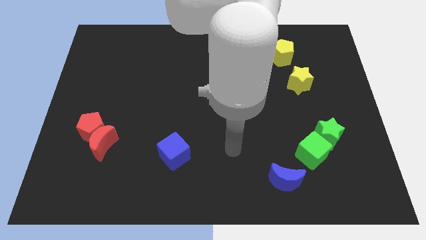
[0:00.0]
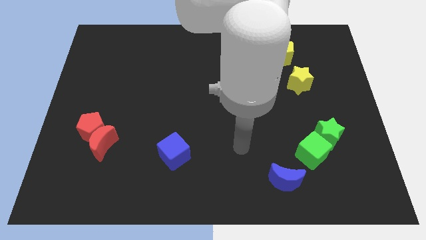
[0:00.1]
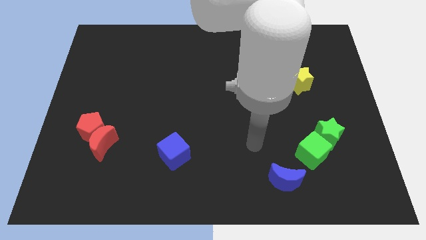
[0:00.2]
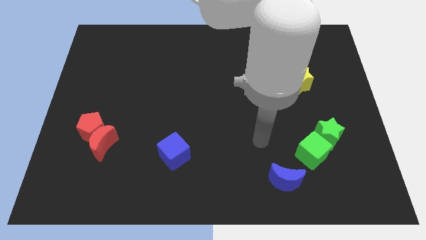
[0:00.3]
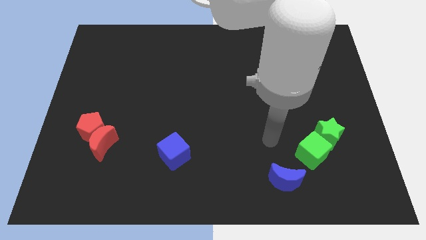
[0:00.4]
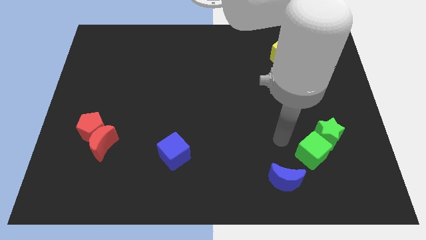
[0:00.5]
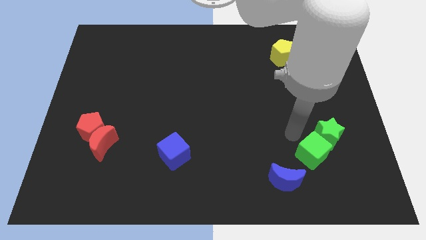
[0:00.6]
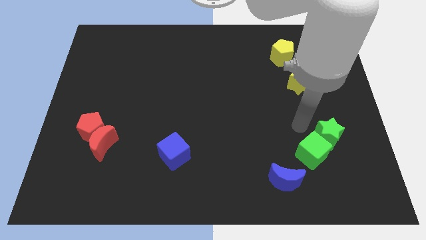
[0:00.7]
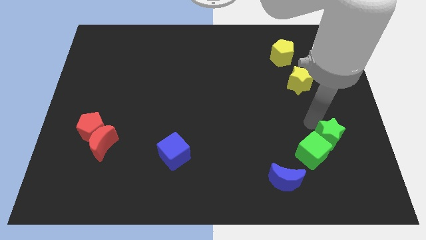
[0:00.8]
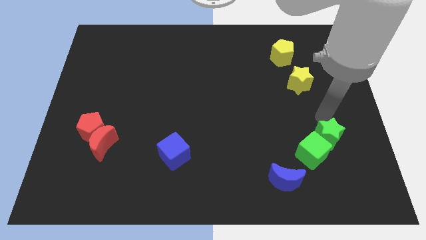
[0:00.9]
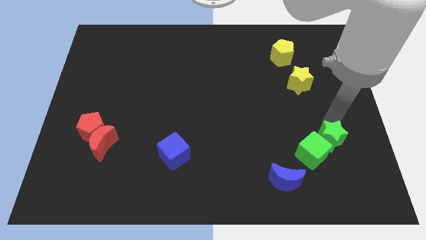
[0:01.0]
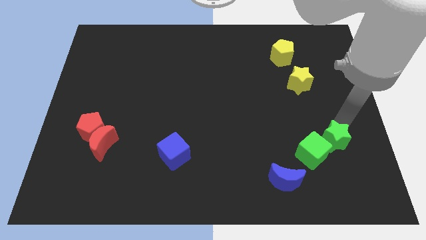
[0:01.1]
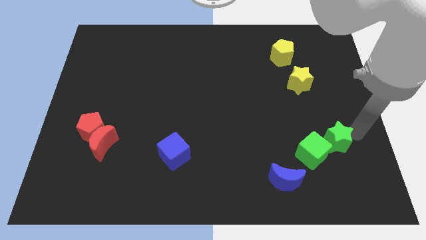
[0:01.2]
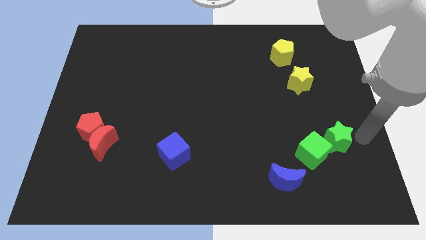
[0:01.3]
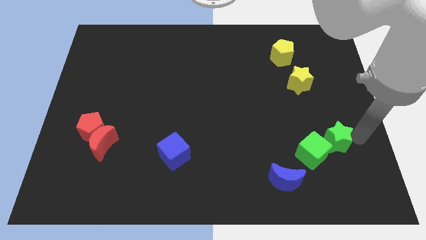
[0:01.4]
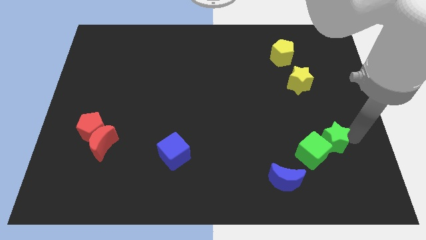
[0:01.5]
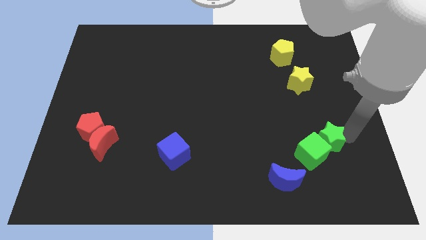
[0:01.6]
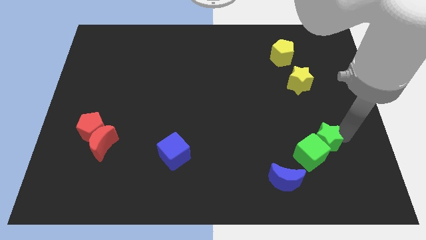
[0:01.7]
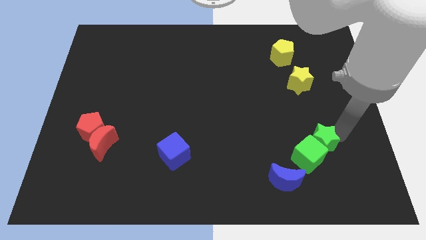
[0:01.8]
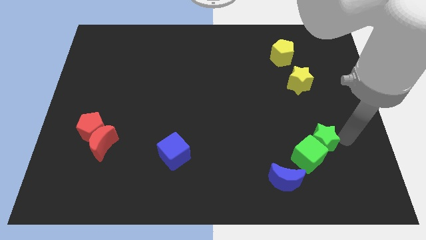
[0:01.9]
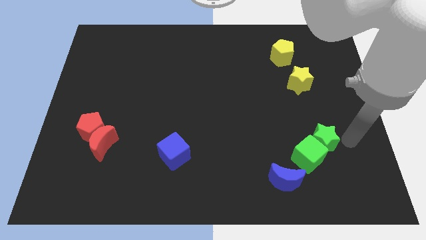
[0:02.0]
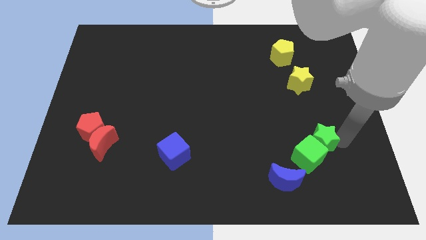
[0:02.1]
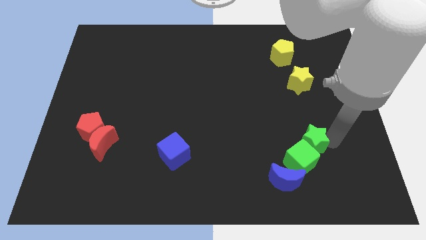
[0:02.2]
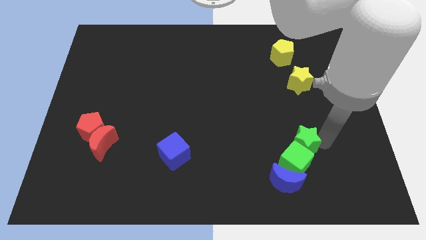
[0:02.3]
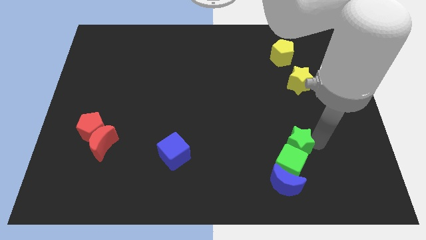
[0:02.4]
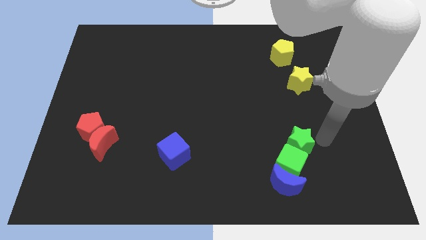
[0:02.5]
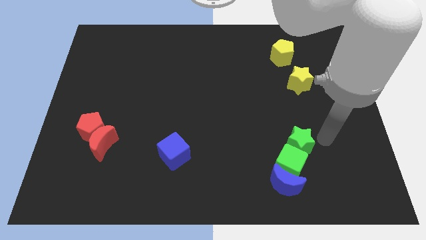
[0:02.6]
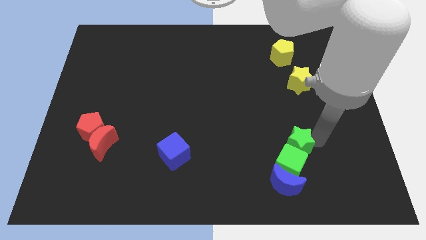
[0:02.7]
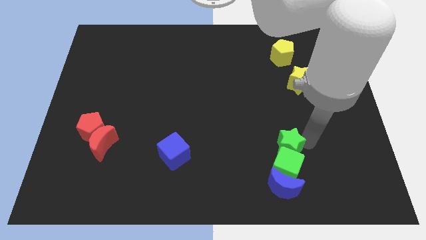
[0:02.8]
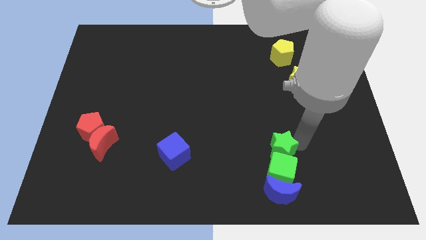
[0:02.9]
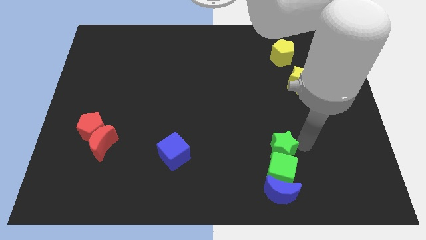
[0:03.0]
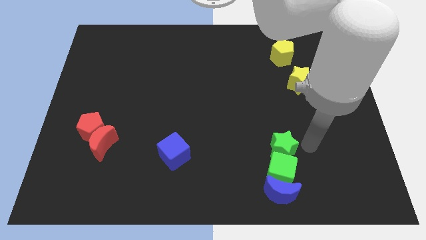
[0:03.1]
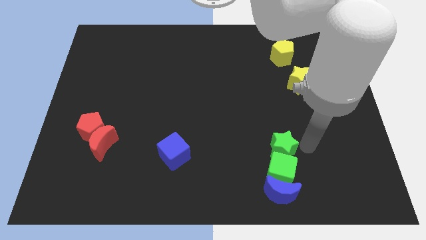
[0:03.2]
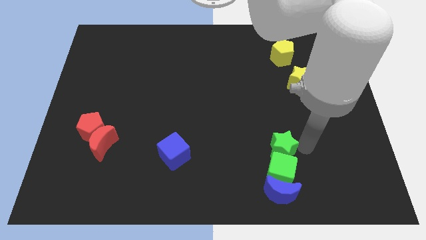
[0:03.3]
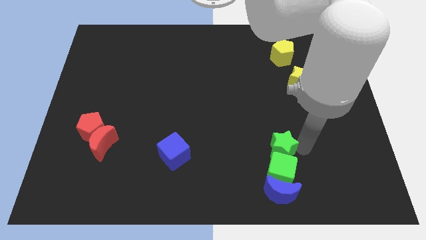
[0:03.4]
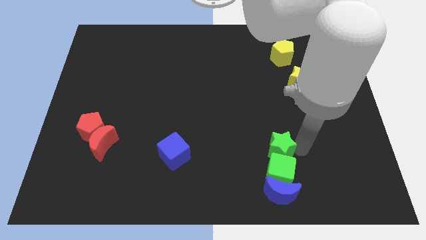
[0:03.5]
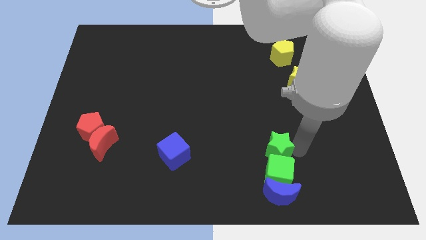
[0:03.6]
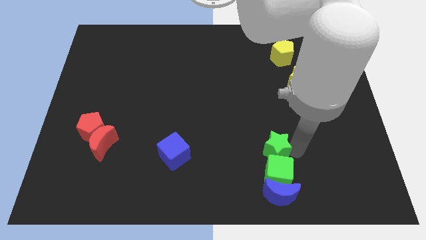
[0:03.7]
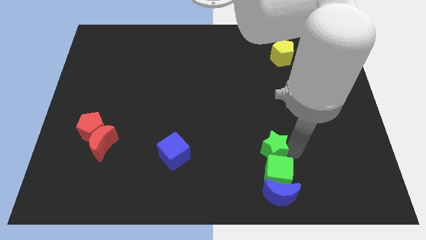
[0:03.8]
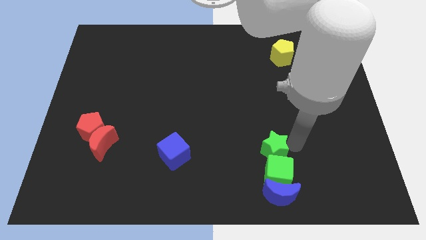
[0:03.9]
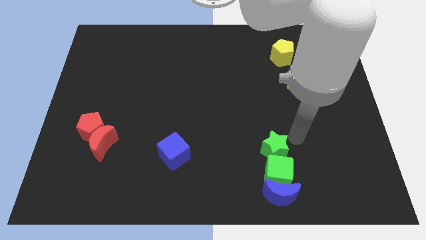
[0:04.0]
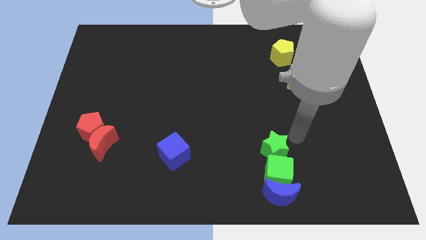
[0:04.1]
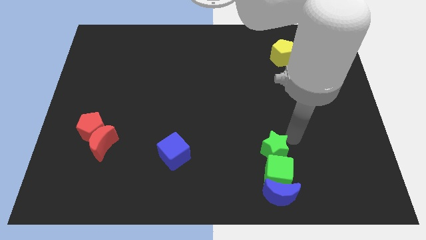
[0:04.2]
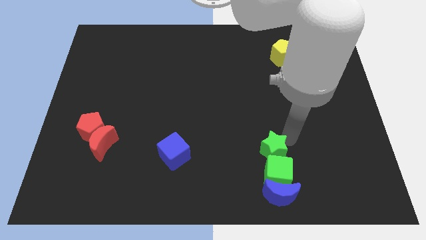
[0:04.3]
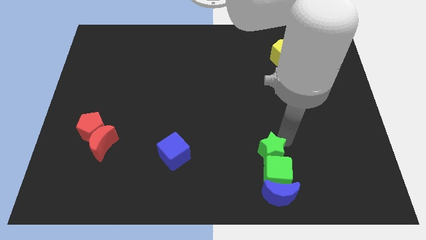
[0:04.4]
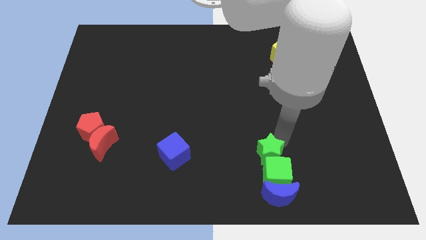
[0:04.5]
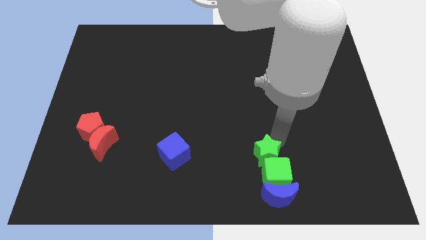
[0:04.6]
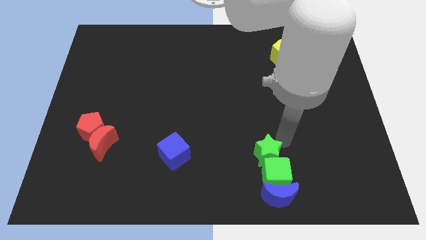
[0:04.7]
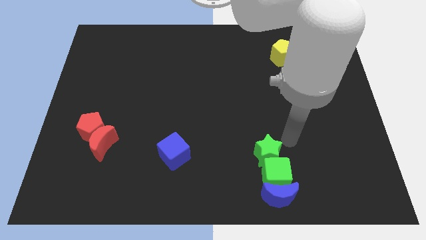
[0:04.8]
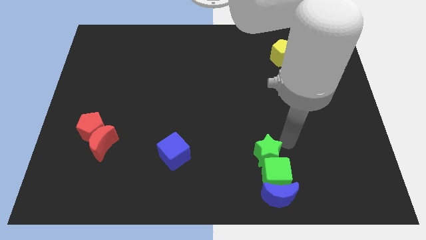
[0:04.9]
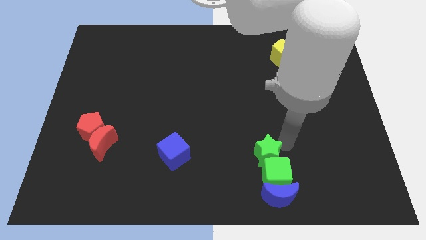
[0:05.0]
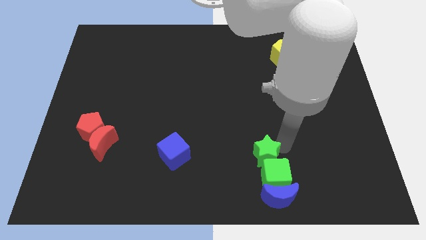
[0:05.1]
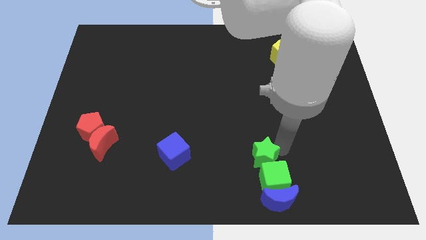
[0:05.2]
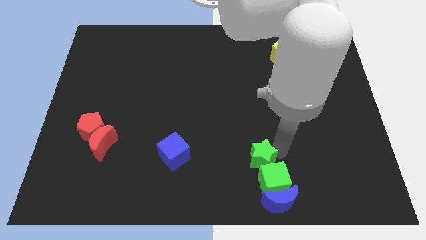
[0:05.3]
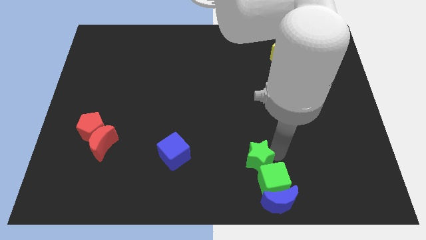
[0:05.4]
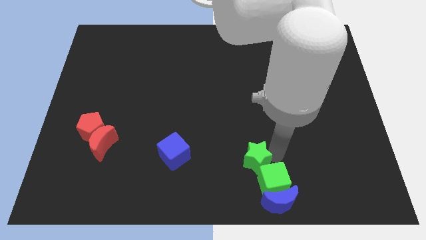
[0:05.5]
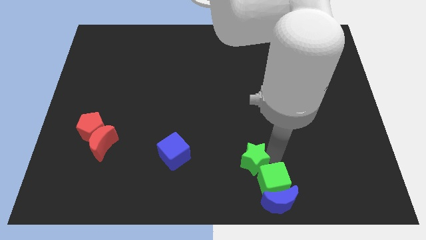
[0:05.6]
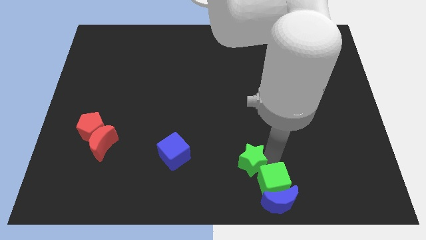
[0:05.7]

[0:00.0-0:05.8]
move the green star to the bottom

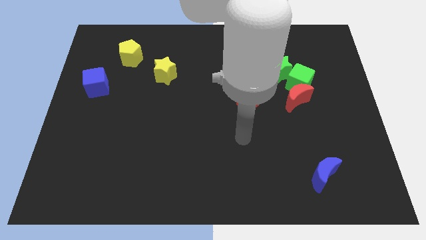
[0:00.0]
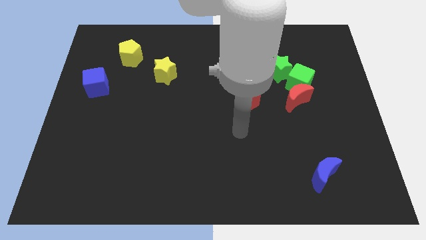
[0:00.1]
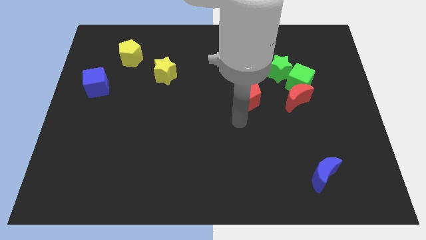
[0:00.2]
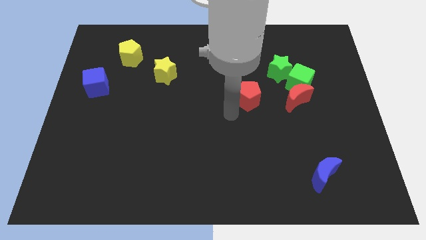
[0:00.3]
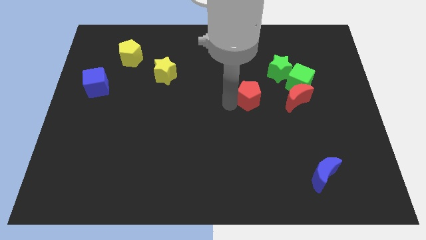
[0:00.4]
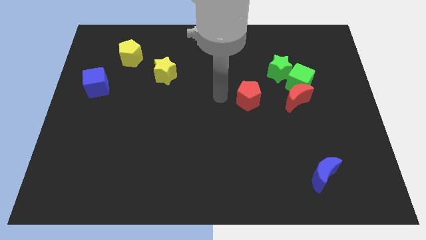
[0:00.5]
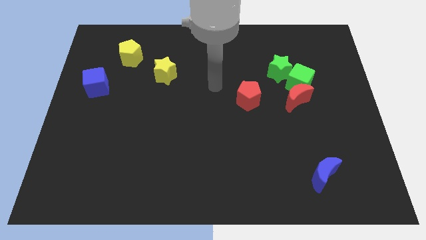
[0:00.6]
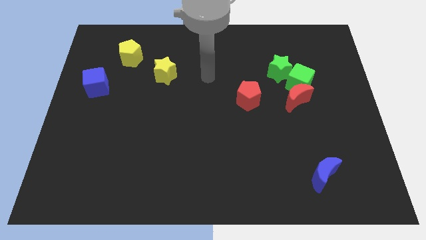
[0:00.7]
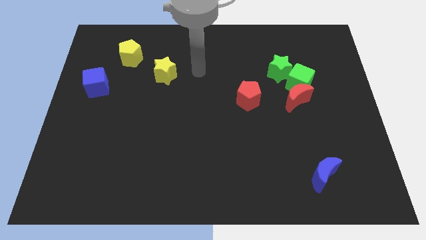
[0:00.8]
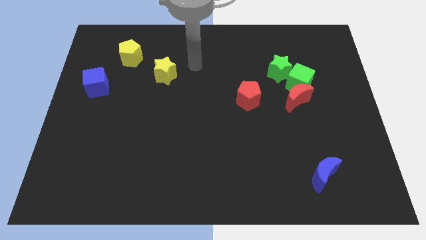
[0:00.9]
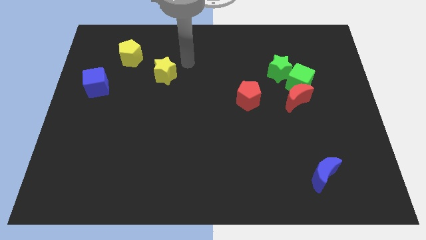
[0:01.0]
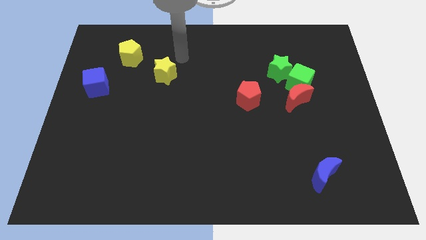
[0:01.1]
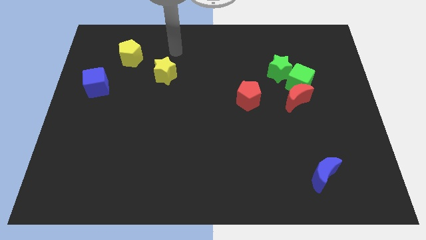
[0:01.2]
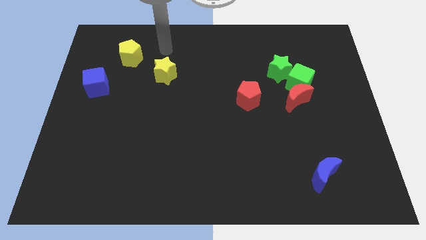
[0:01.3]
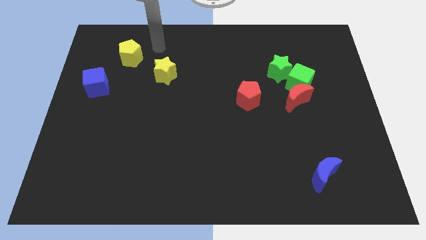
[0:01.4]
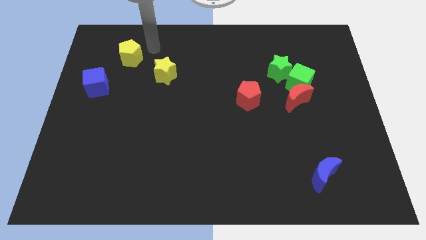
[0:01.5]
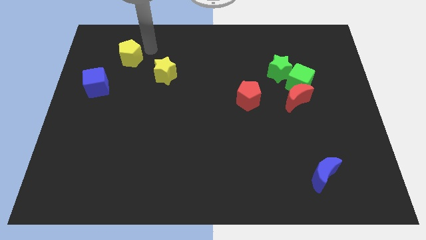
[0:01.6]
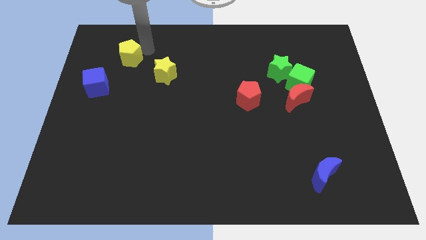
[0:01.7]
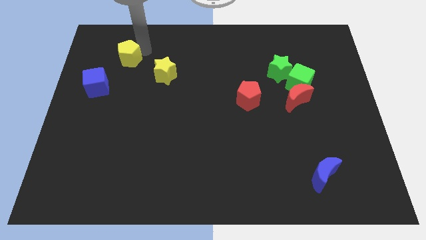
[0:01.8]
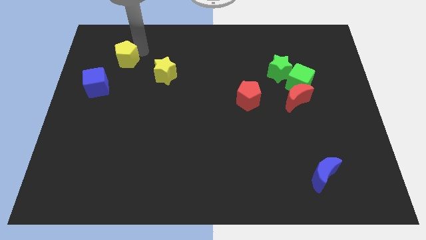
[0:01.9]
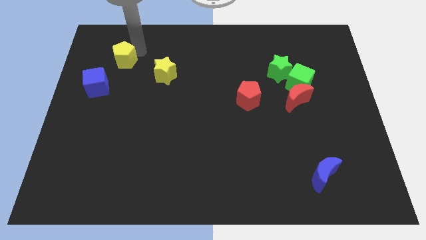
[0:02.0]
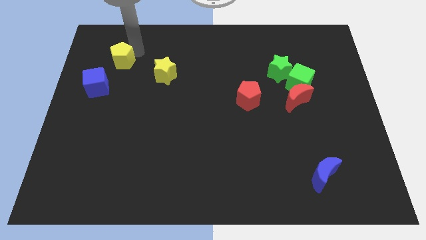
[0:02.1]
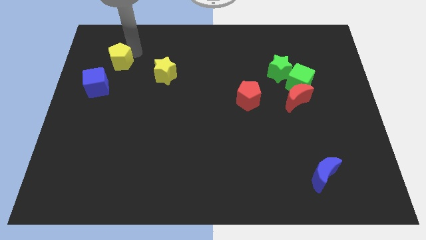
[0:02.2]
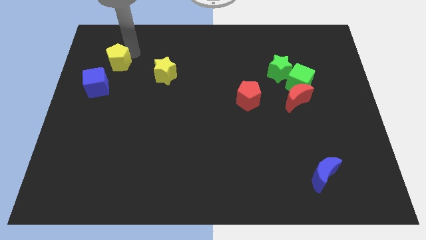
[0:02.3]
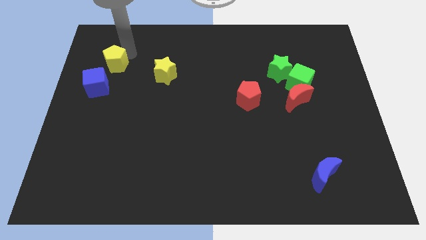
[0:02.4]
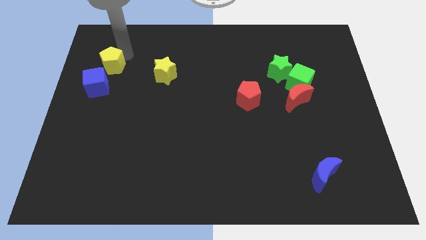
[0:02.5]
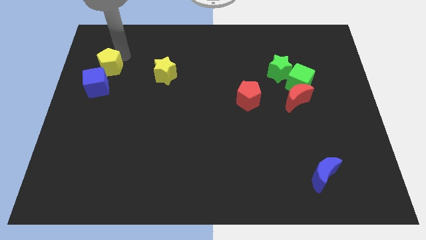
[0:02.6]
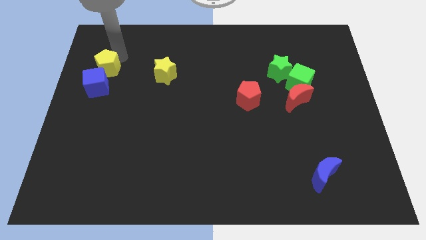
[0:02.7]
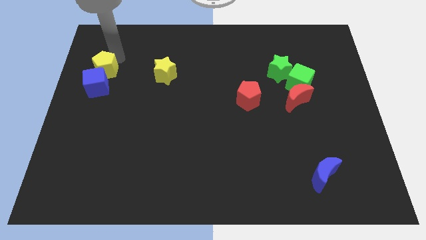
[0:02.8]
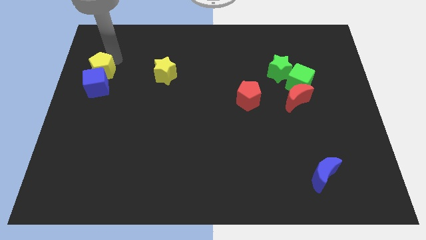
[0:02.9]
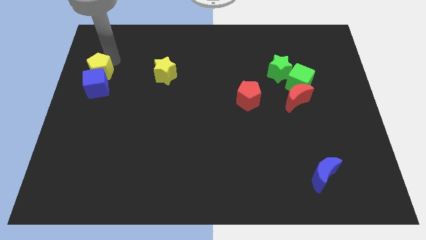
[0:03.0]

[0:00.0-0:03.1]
move the yellow pentagon to the left side of the board
